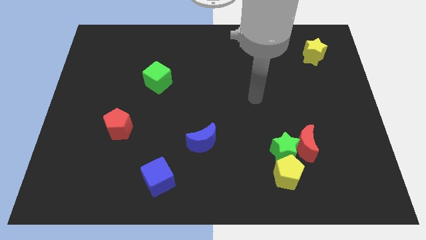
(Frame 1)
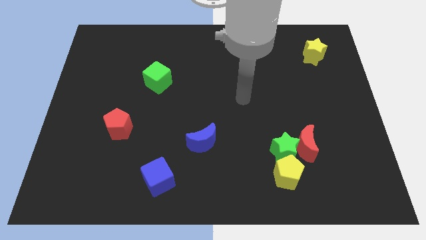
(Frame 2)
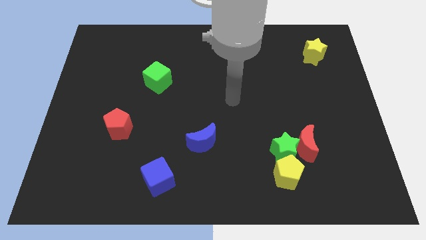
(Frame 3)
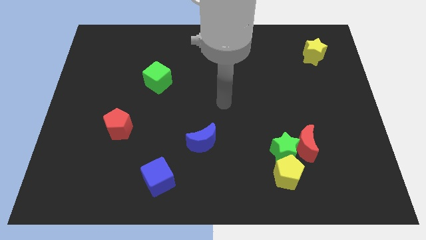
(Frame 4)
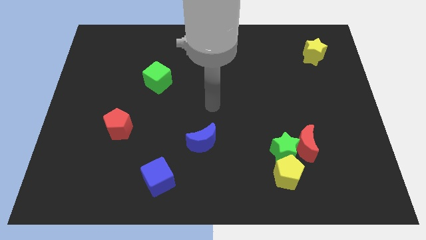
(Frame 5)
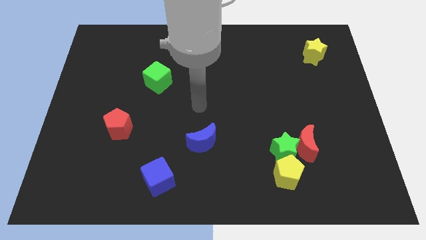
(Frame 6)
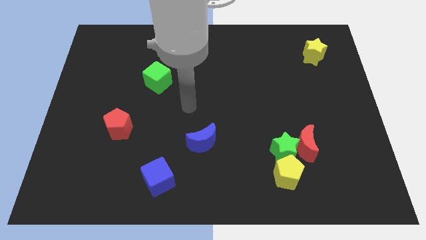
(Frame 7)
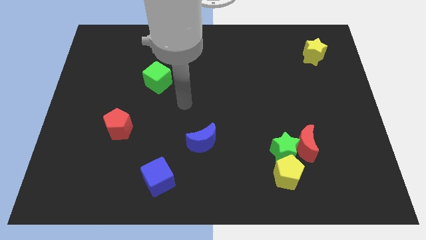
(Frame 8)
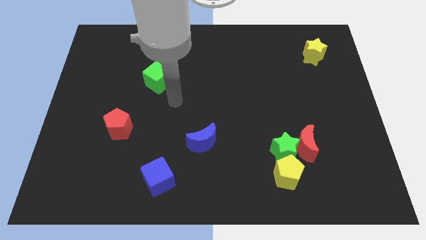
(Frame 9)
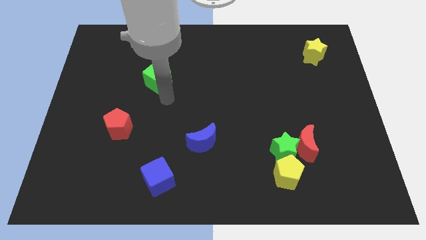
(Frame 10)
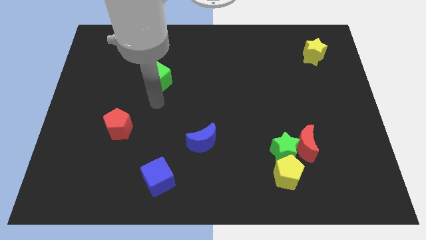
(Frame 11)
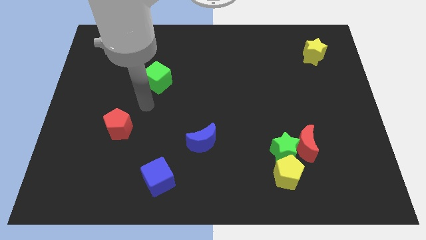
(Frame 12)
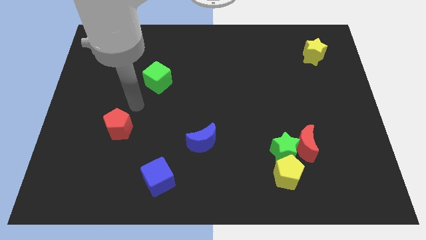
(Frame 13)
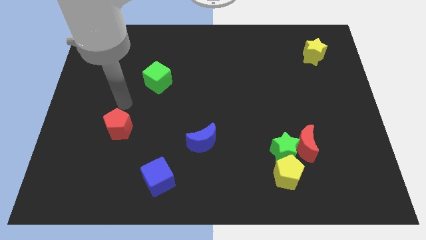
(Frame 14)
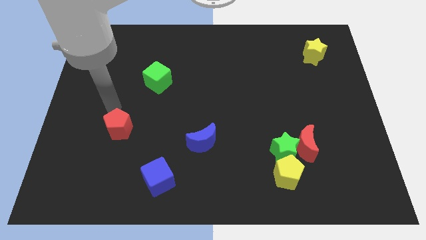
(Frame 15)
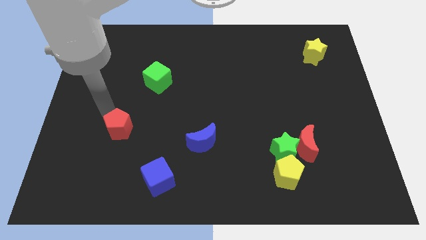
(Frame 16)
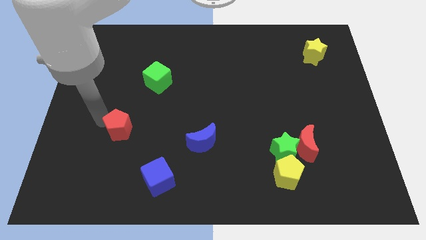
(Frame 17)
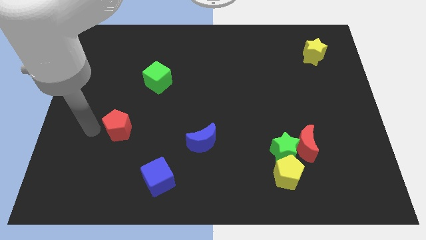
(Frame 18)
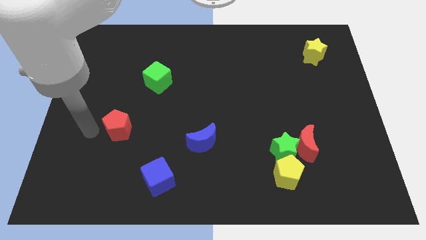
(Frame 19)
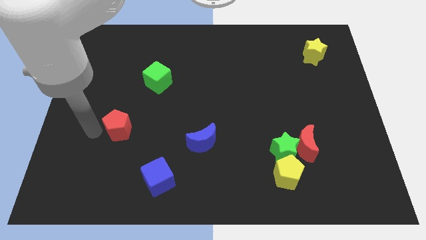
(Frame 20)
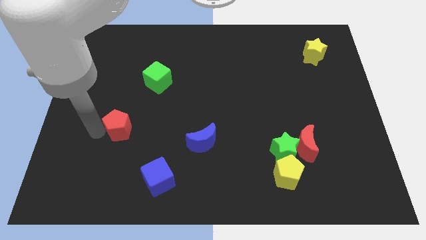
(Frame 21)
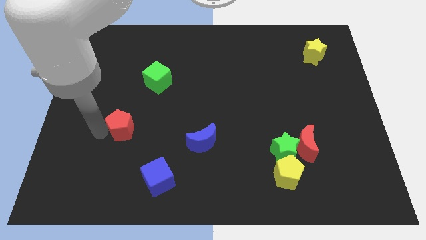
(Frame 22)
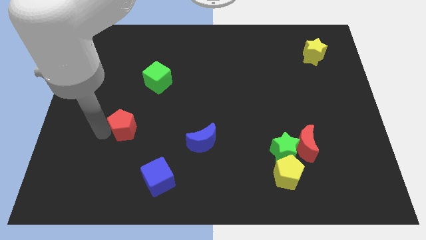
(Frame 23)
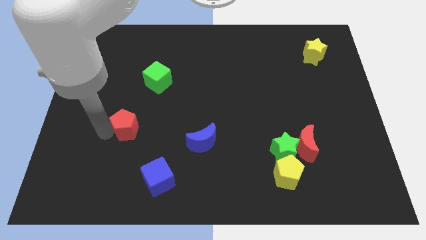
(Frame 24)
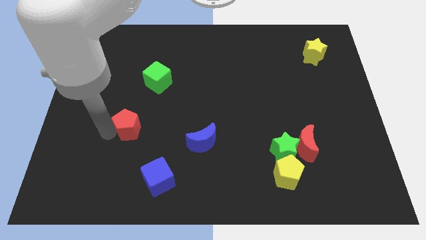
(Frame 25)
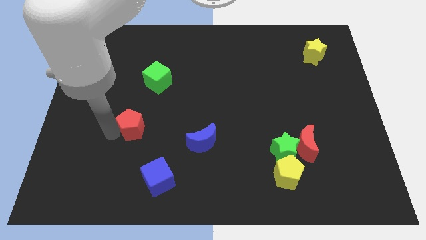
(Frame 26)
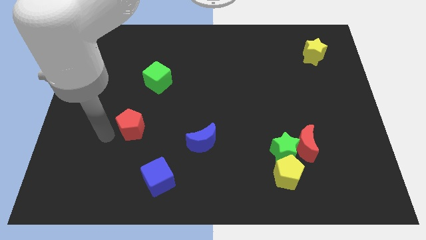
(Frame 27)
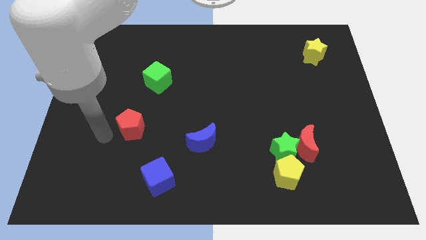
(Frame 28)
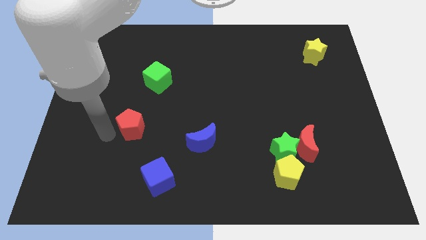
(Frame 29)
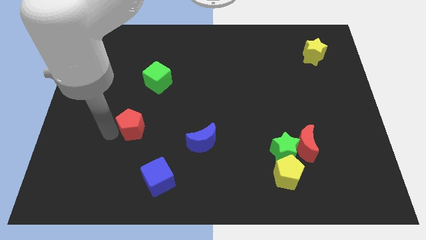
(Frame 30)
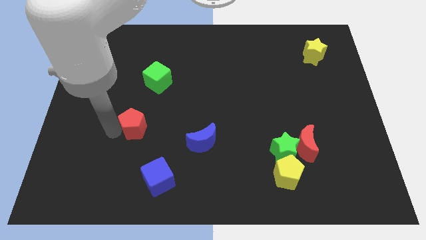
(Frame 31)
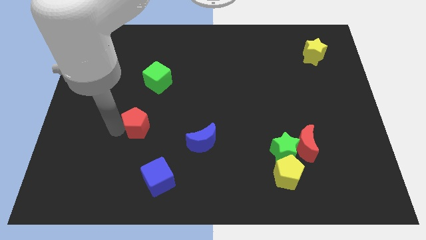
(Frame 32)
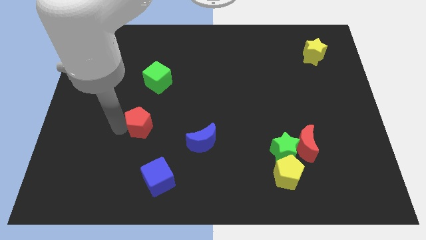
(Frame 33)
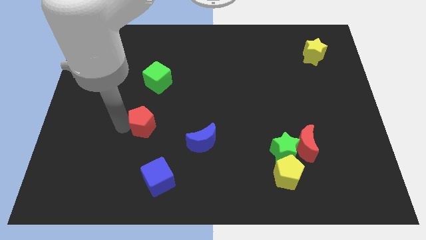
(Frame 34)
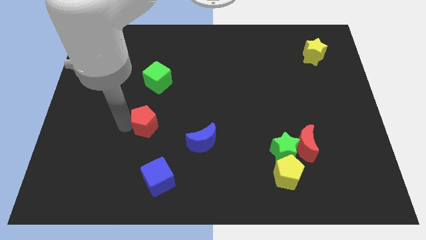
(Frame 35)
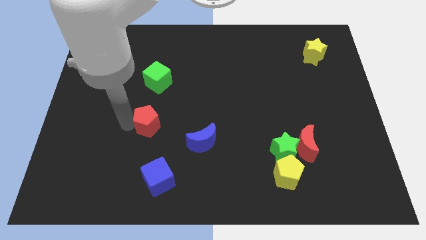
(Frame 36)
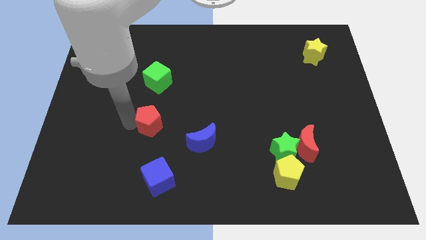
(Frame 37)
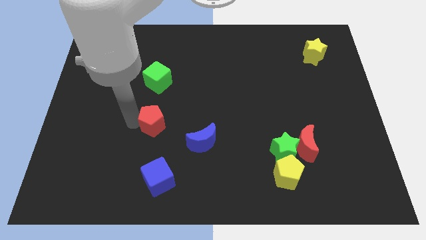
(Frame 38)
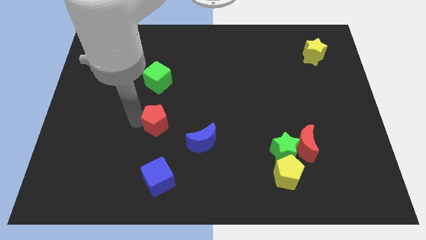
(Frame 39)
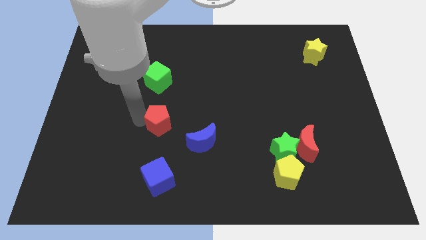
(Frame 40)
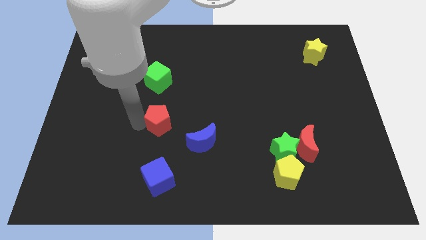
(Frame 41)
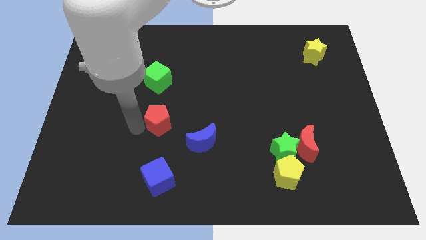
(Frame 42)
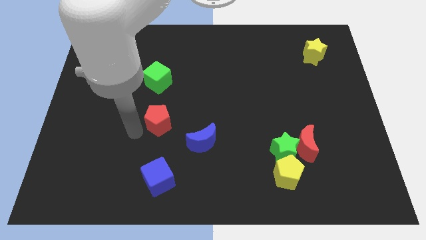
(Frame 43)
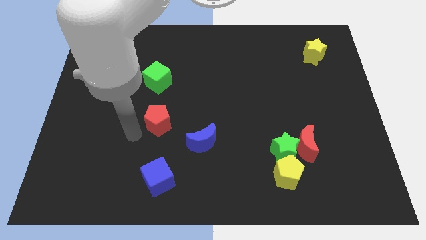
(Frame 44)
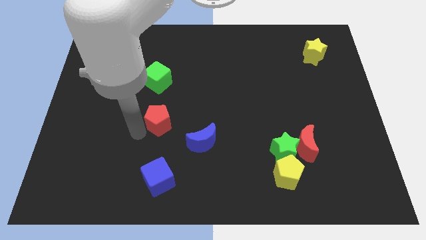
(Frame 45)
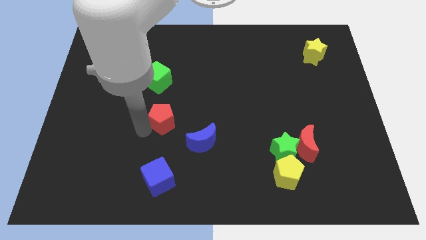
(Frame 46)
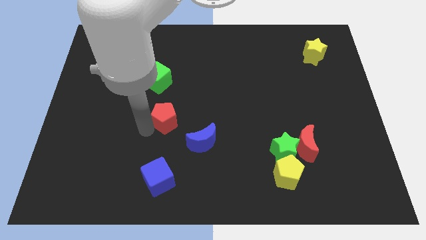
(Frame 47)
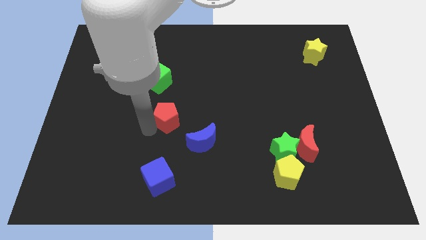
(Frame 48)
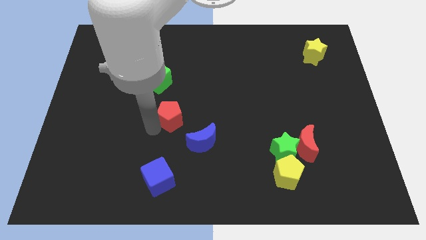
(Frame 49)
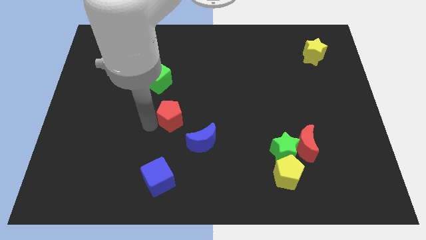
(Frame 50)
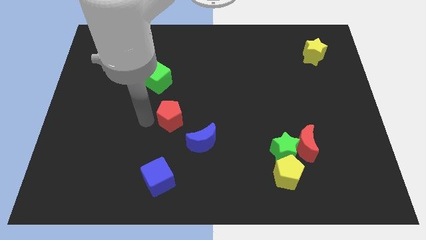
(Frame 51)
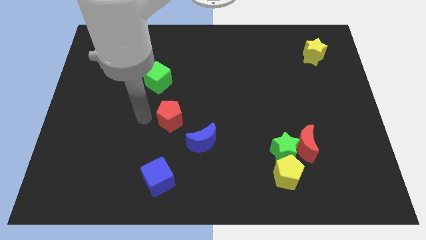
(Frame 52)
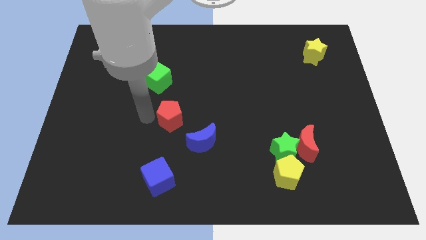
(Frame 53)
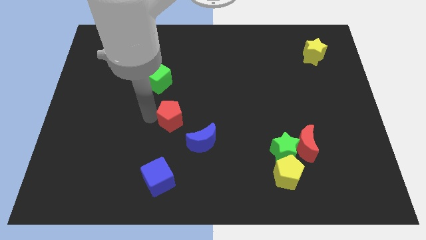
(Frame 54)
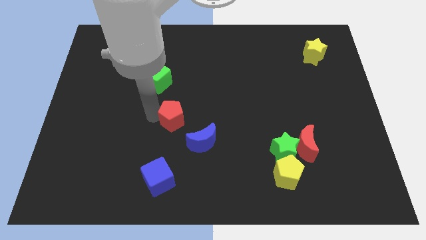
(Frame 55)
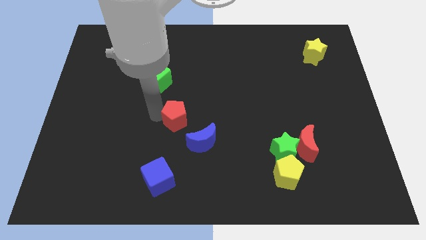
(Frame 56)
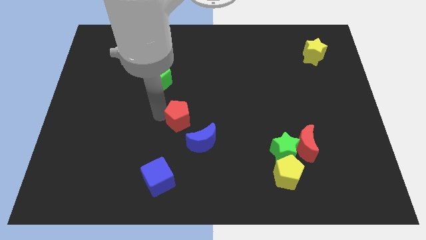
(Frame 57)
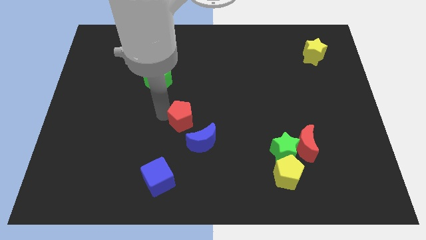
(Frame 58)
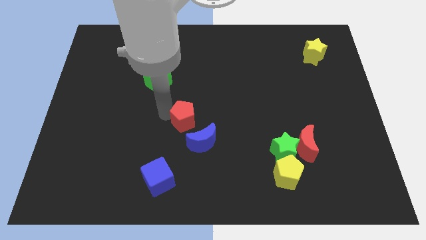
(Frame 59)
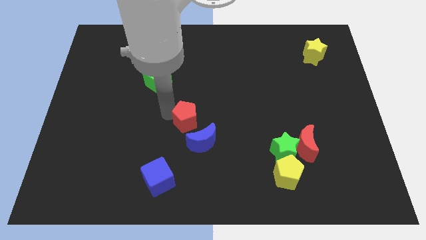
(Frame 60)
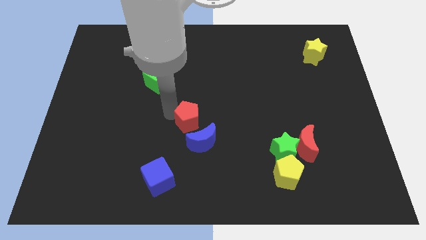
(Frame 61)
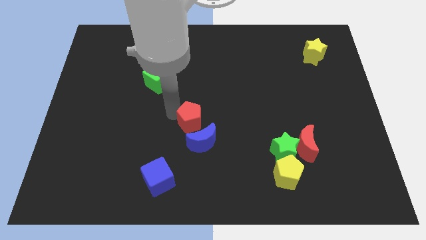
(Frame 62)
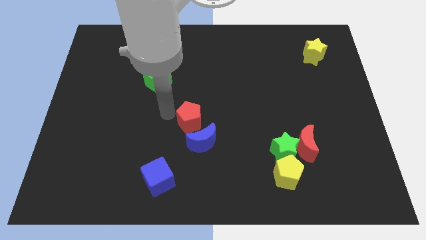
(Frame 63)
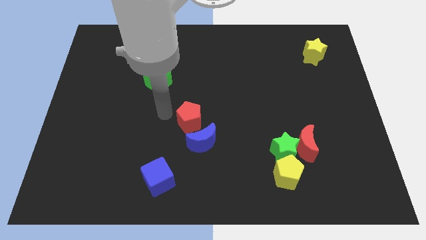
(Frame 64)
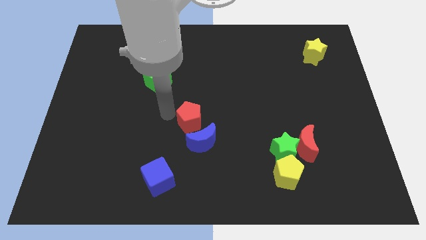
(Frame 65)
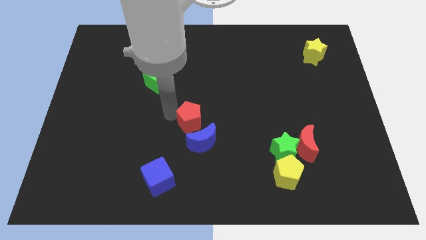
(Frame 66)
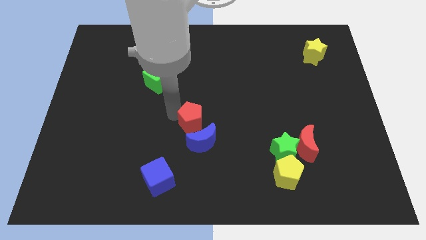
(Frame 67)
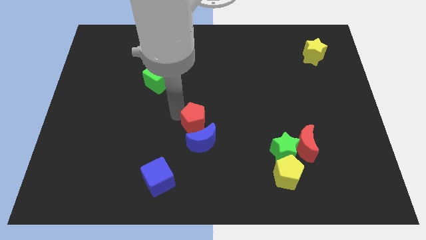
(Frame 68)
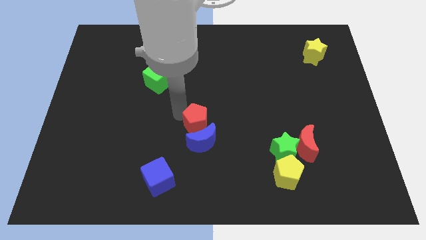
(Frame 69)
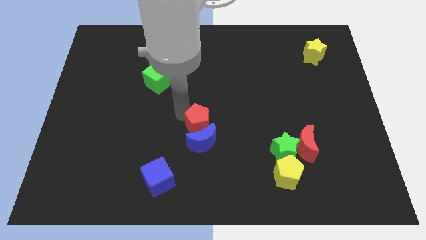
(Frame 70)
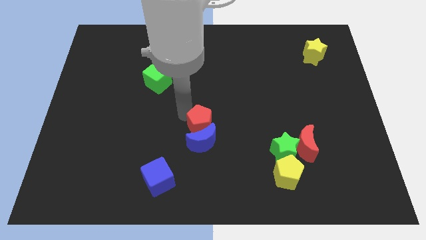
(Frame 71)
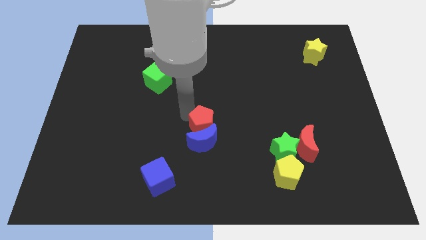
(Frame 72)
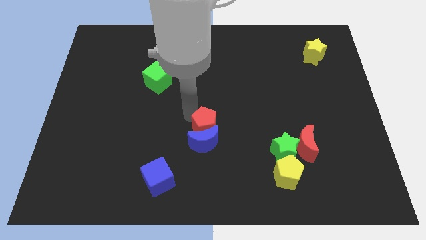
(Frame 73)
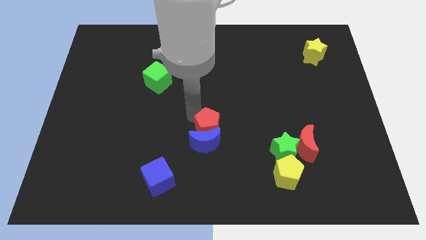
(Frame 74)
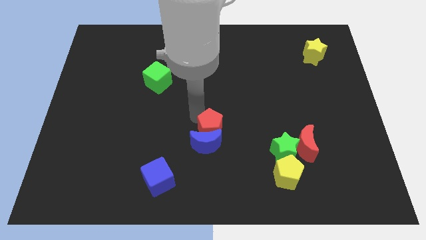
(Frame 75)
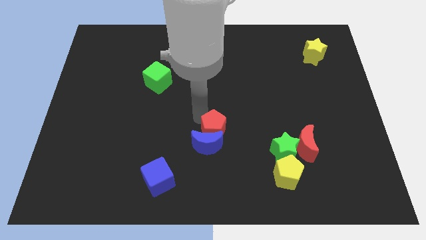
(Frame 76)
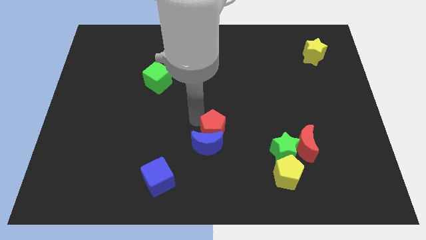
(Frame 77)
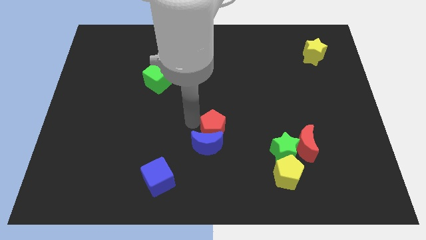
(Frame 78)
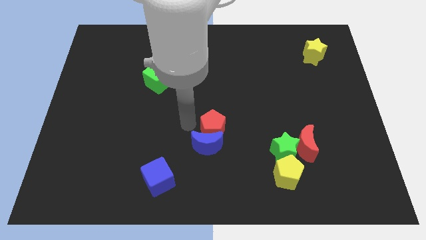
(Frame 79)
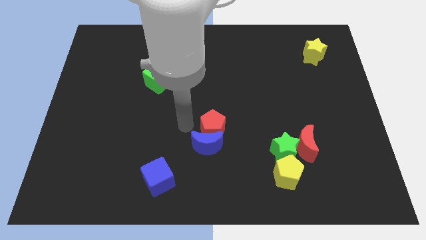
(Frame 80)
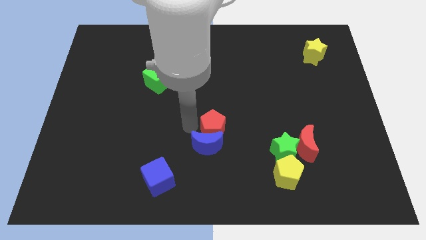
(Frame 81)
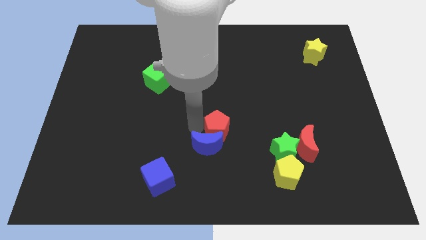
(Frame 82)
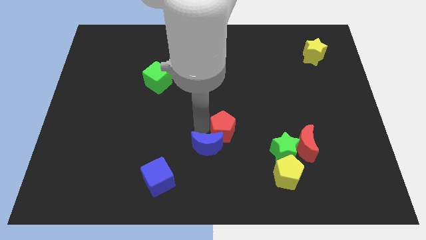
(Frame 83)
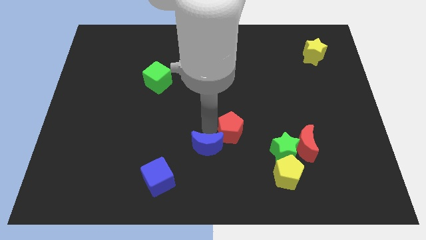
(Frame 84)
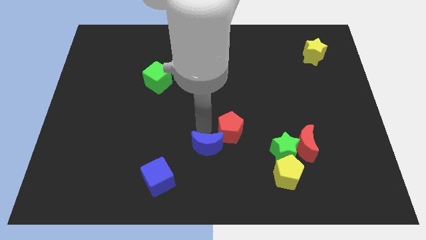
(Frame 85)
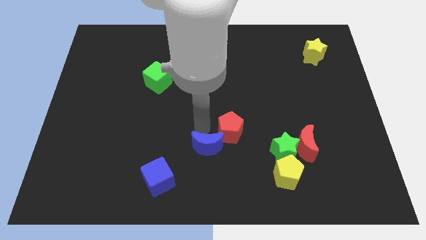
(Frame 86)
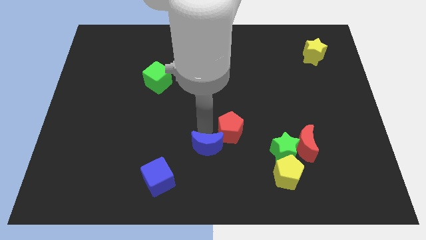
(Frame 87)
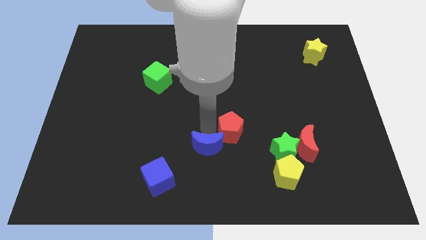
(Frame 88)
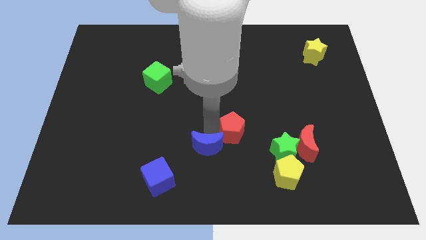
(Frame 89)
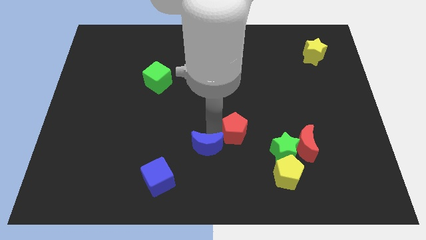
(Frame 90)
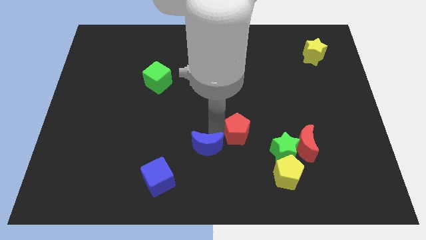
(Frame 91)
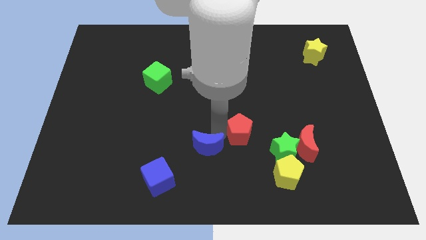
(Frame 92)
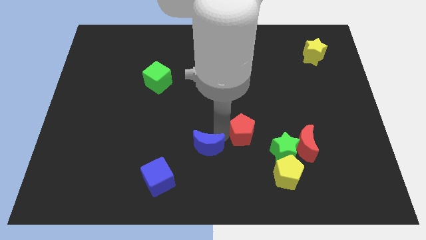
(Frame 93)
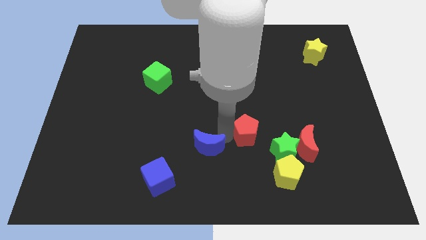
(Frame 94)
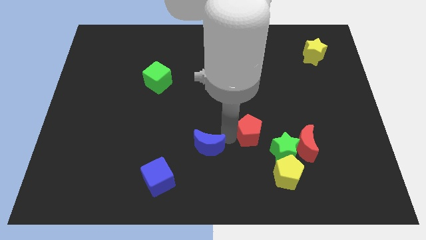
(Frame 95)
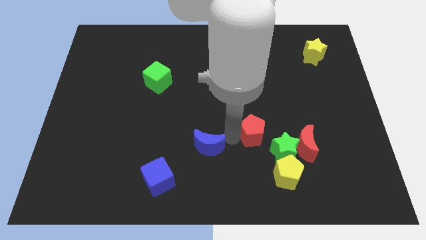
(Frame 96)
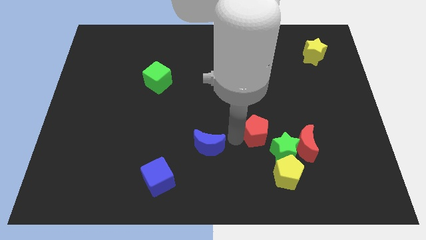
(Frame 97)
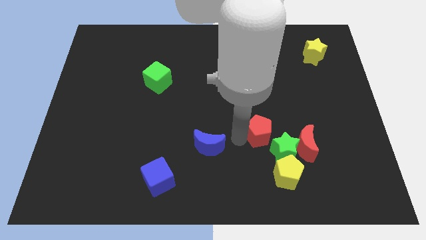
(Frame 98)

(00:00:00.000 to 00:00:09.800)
move the red pentagon above the yellow pentagon
